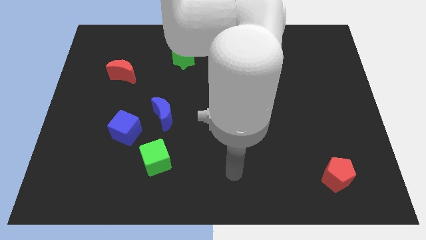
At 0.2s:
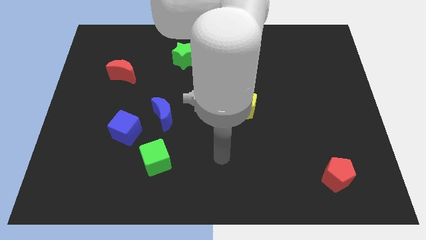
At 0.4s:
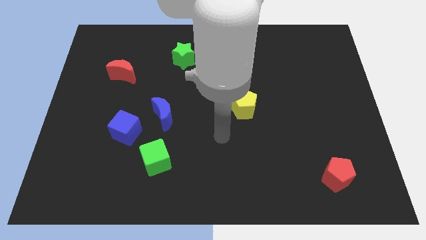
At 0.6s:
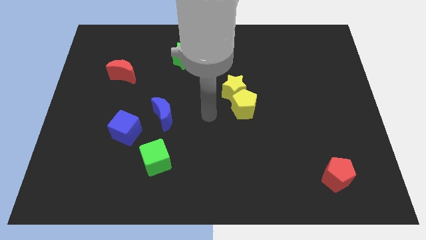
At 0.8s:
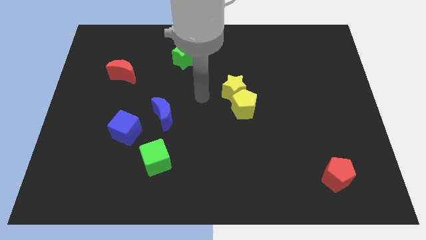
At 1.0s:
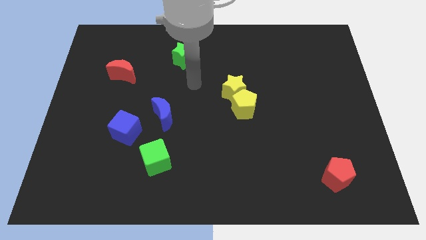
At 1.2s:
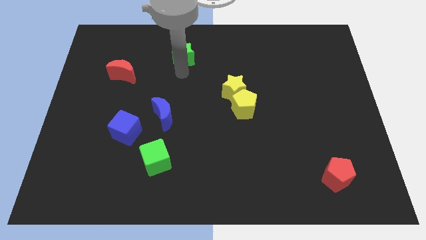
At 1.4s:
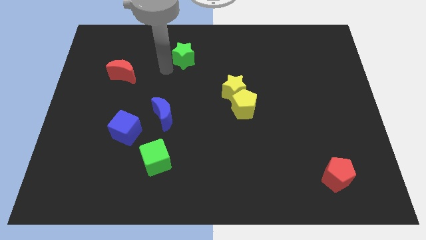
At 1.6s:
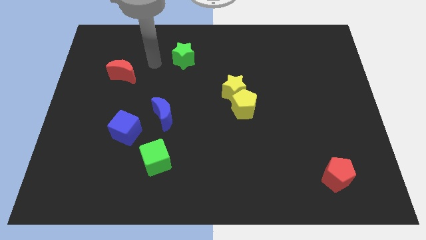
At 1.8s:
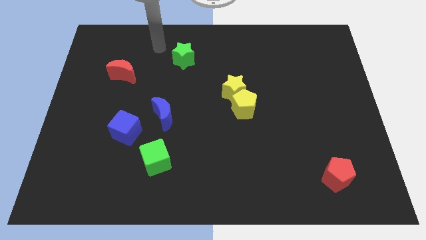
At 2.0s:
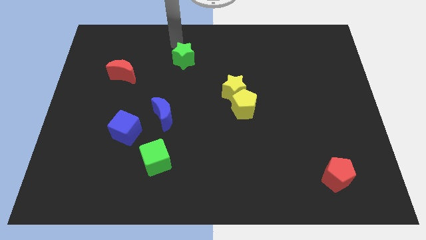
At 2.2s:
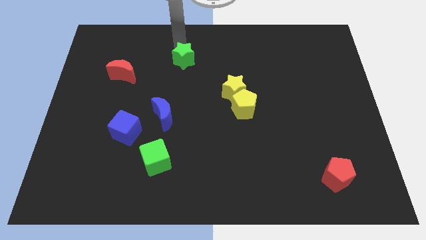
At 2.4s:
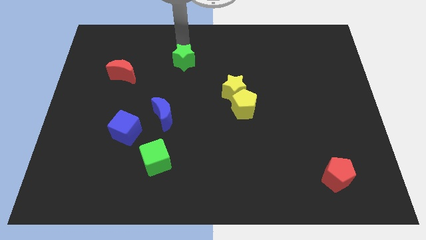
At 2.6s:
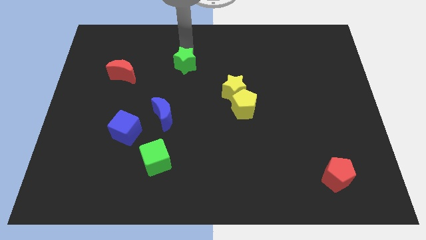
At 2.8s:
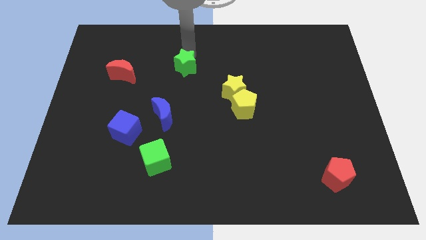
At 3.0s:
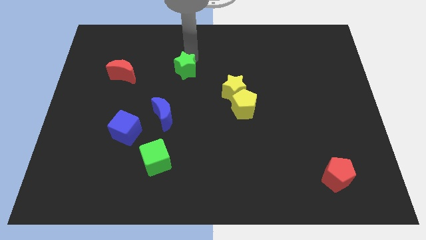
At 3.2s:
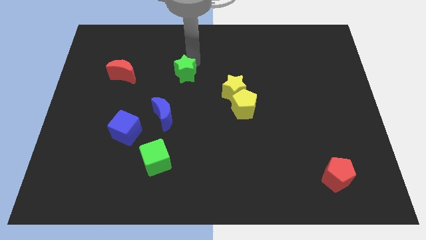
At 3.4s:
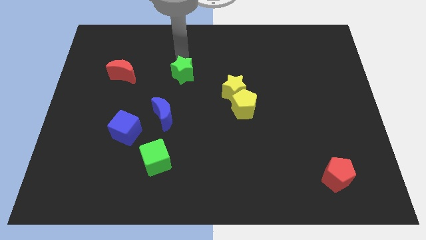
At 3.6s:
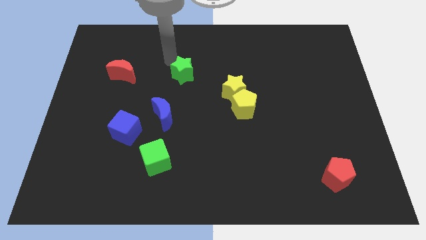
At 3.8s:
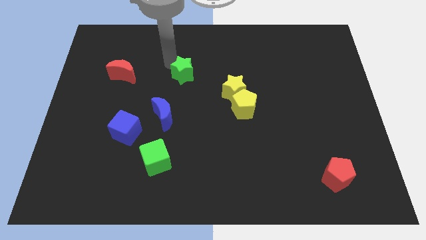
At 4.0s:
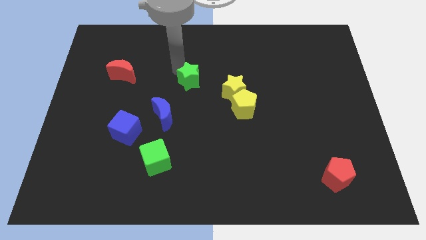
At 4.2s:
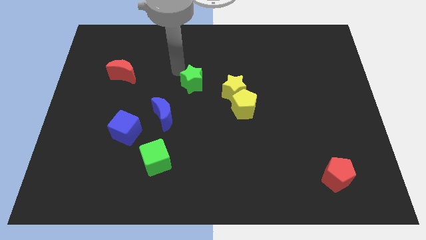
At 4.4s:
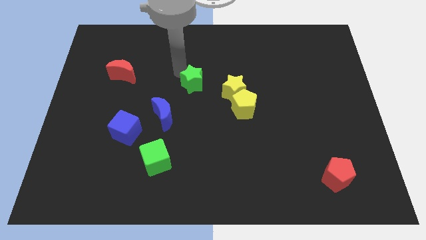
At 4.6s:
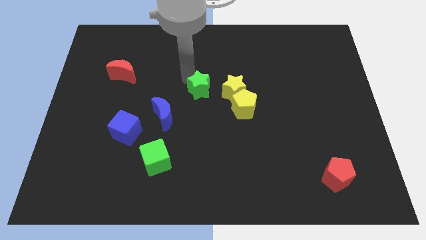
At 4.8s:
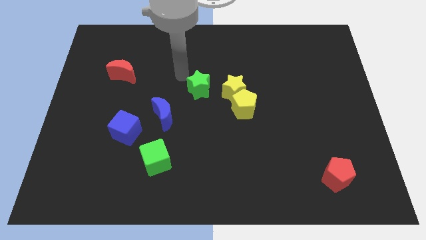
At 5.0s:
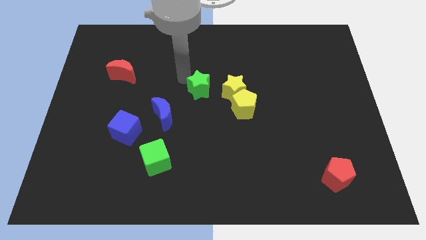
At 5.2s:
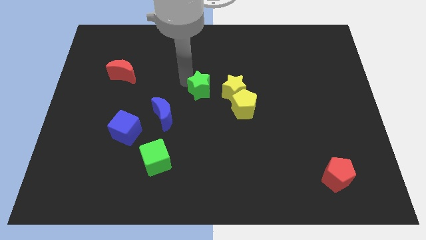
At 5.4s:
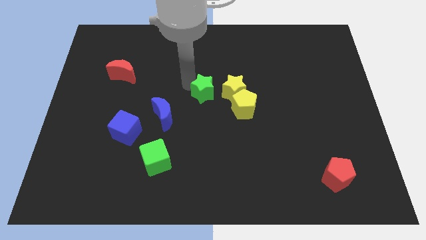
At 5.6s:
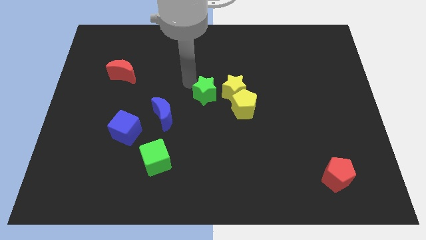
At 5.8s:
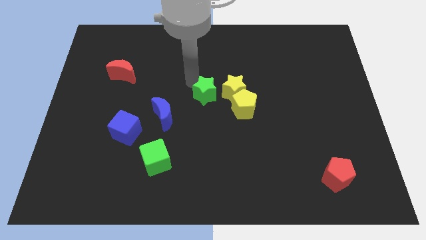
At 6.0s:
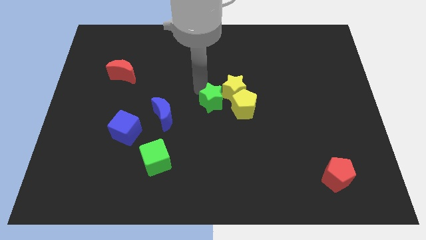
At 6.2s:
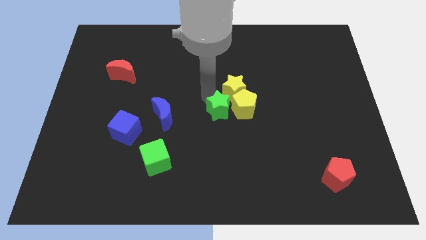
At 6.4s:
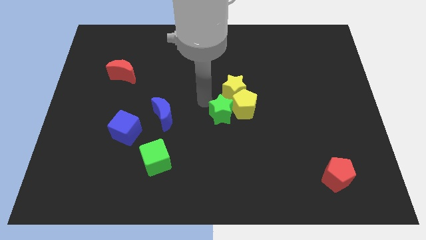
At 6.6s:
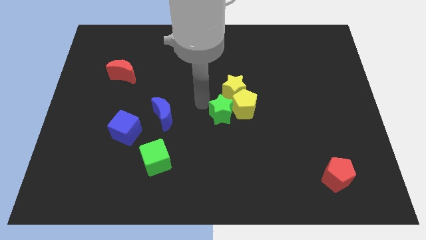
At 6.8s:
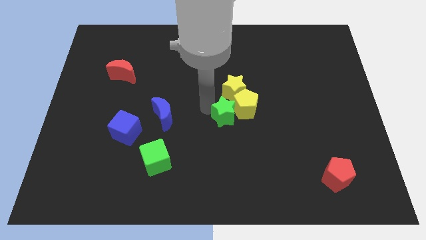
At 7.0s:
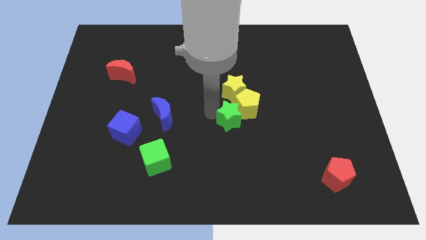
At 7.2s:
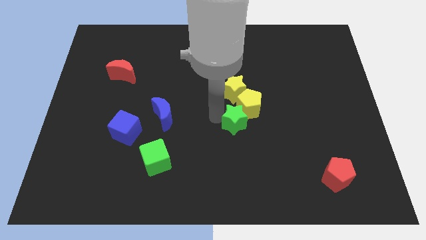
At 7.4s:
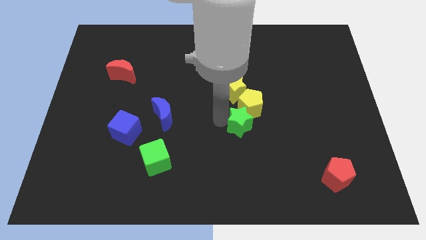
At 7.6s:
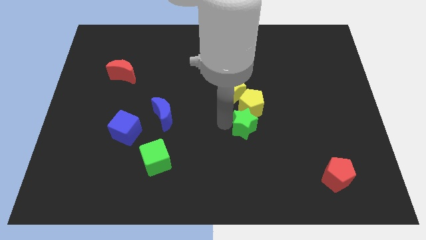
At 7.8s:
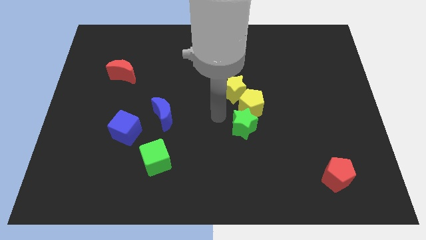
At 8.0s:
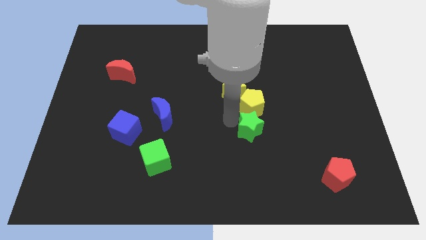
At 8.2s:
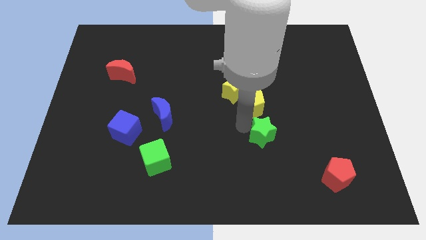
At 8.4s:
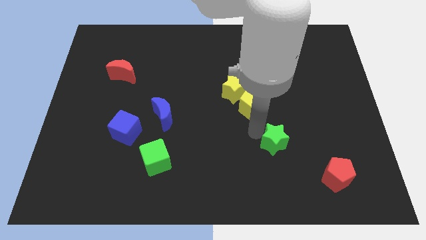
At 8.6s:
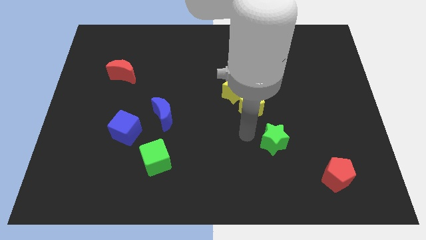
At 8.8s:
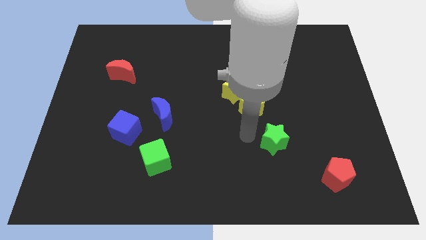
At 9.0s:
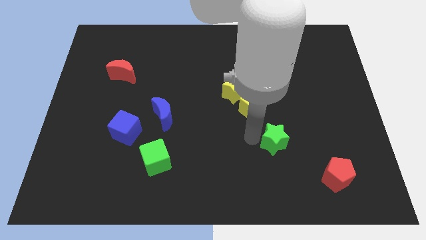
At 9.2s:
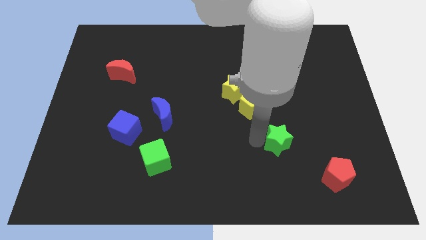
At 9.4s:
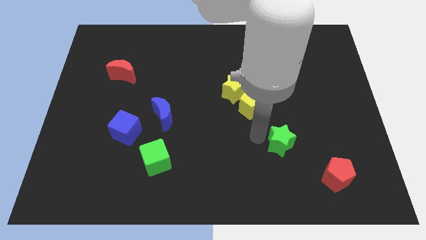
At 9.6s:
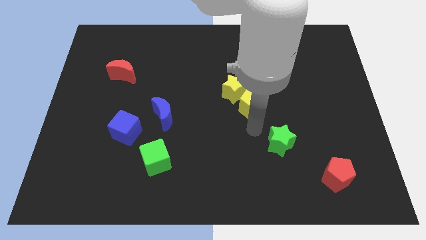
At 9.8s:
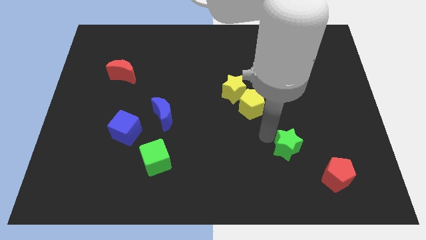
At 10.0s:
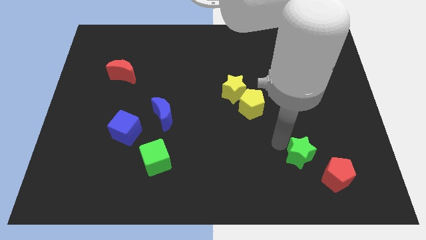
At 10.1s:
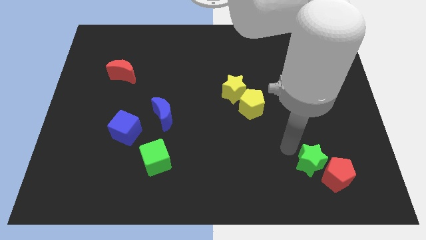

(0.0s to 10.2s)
push the green star towards the red pentagon

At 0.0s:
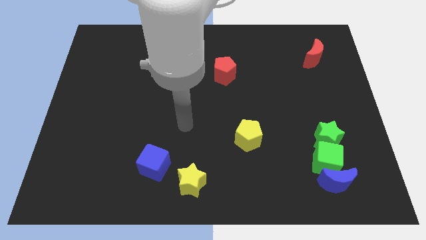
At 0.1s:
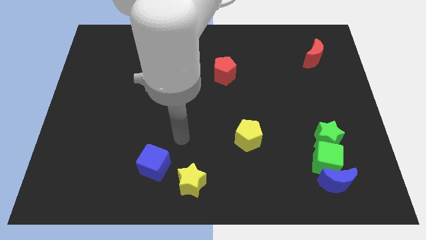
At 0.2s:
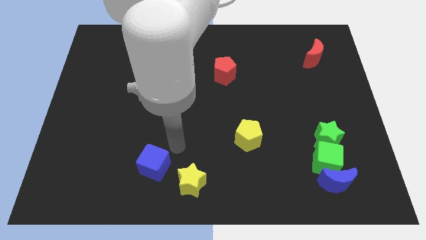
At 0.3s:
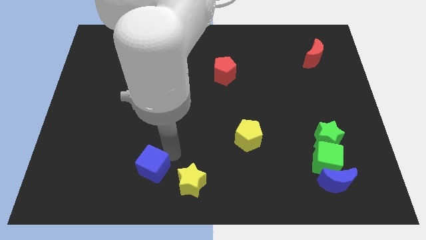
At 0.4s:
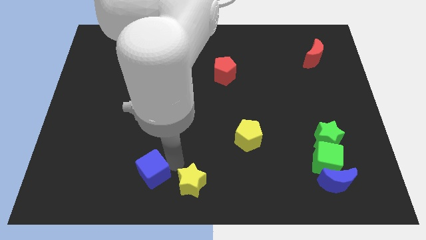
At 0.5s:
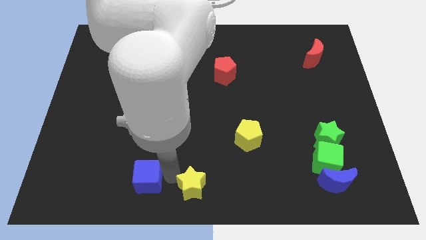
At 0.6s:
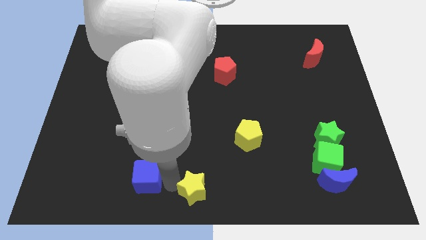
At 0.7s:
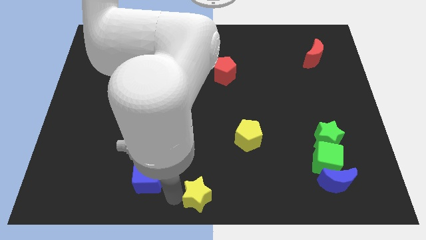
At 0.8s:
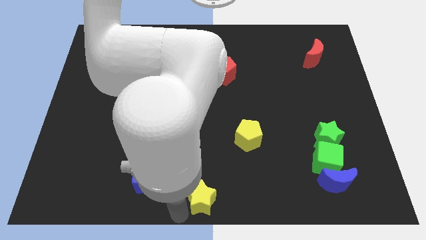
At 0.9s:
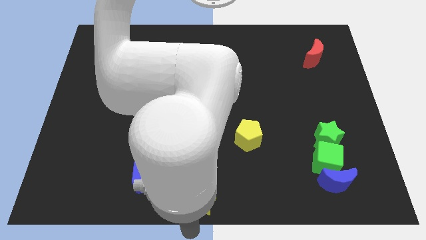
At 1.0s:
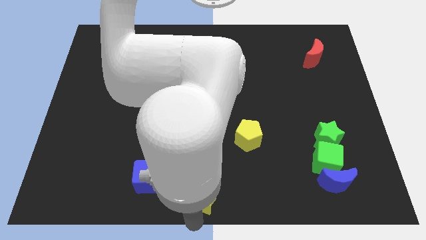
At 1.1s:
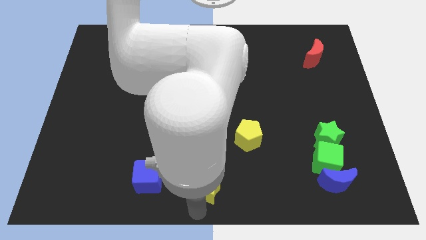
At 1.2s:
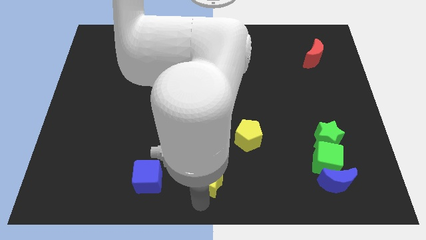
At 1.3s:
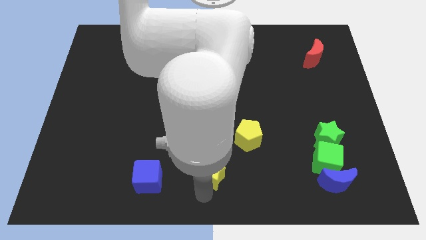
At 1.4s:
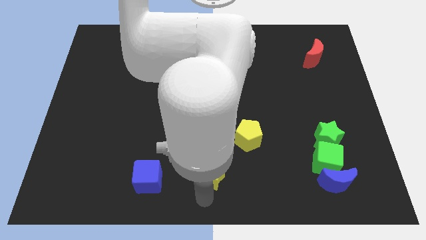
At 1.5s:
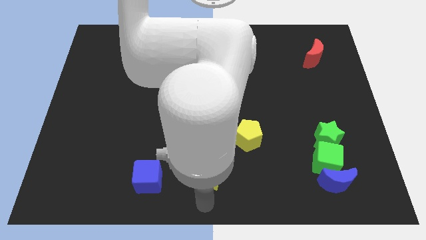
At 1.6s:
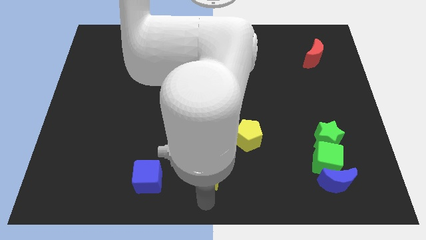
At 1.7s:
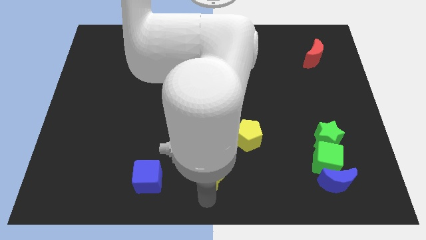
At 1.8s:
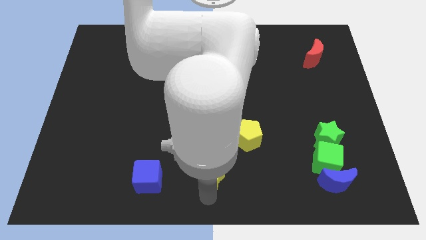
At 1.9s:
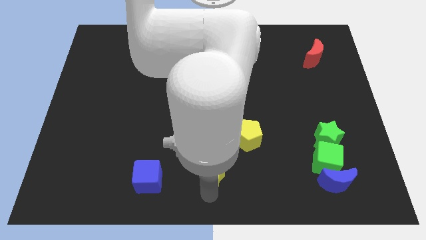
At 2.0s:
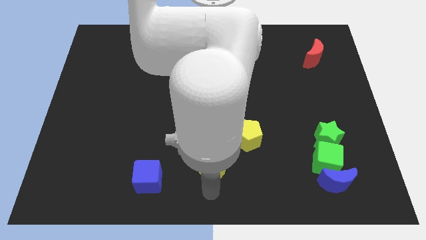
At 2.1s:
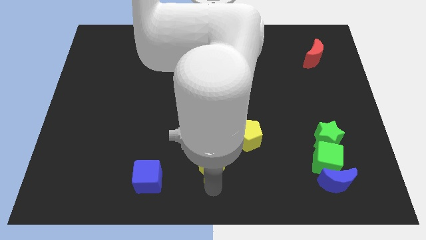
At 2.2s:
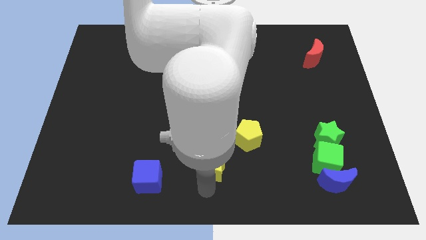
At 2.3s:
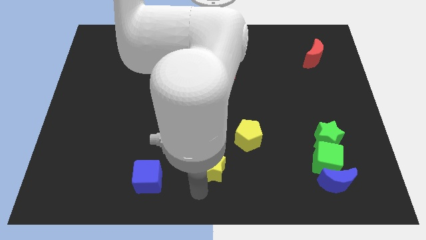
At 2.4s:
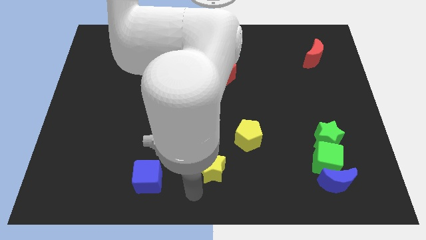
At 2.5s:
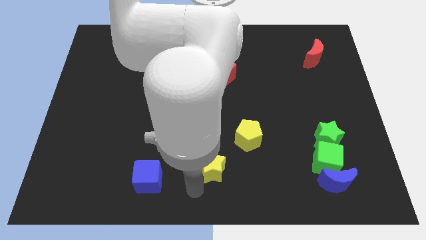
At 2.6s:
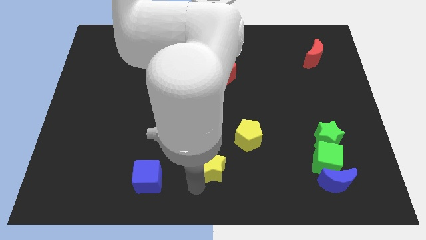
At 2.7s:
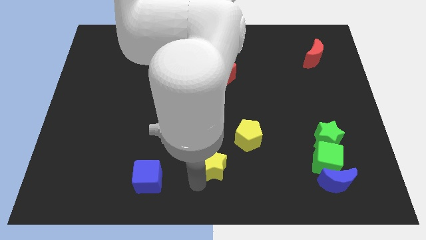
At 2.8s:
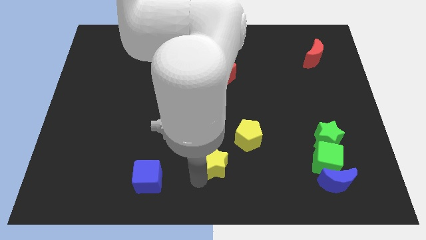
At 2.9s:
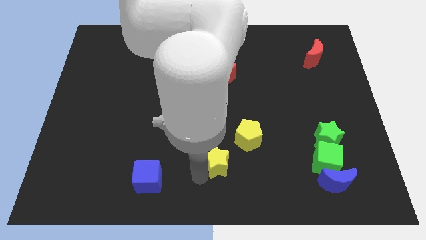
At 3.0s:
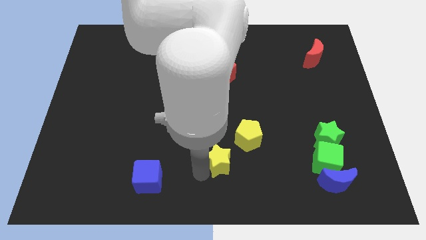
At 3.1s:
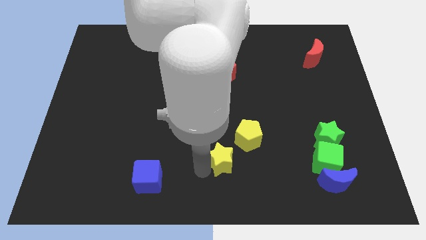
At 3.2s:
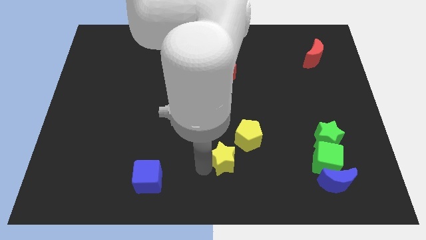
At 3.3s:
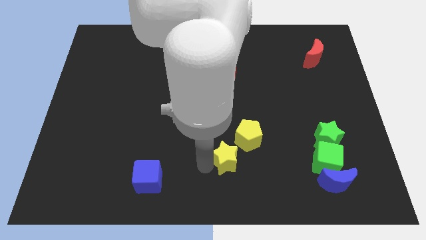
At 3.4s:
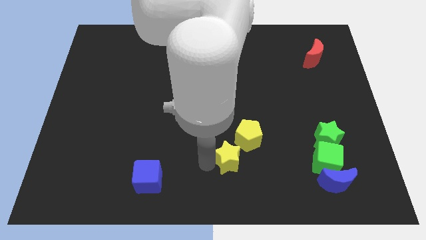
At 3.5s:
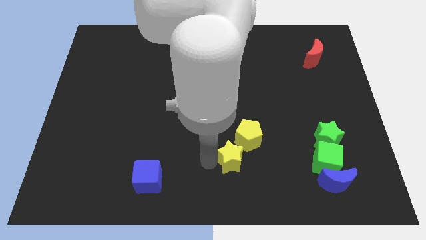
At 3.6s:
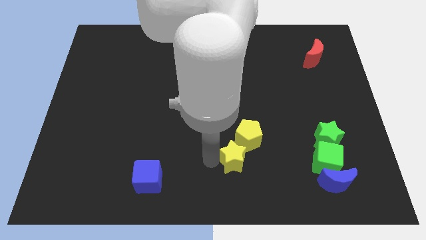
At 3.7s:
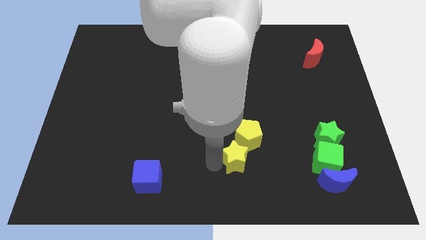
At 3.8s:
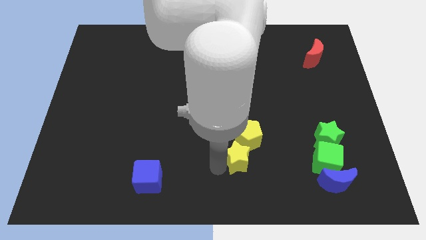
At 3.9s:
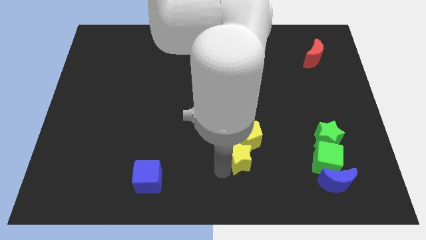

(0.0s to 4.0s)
move the yellow star towards the yellow pentagon
